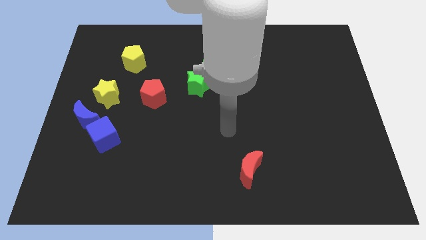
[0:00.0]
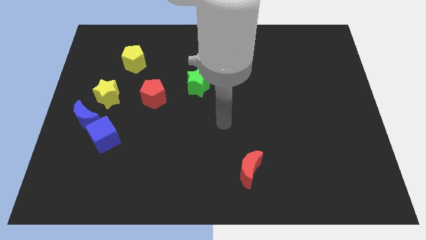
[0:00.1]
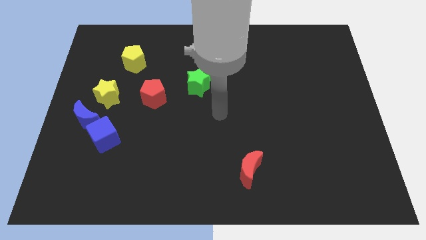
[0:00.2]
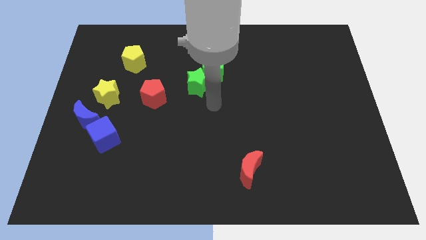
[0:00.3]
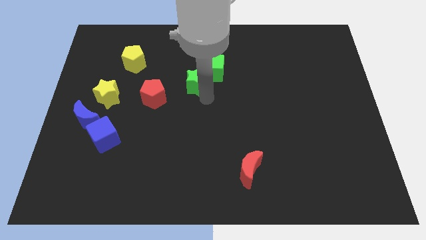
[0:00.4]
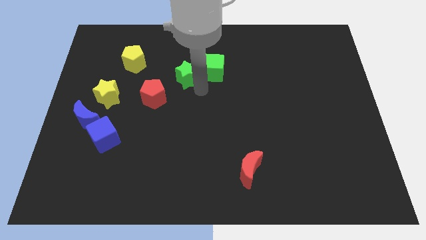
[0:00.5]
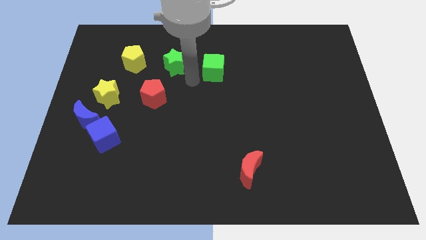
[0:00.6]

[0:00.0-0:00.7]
move the green cube away from the green star

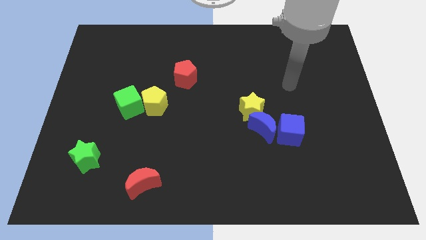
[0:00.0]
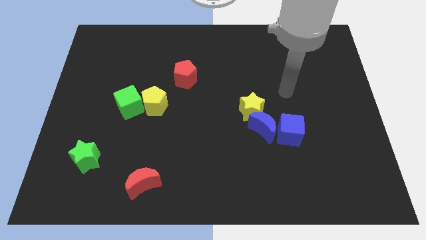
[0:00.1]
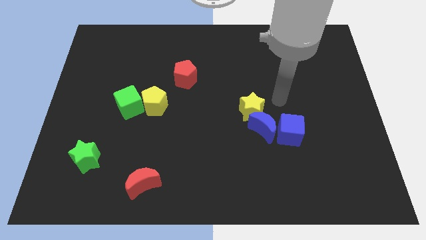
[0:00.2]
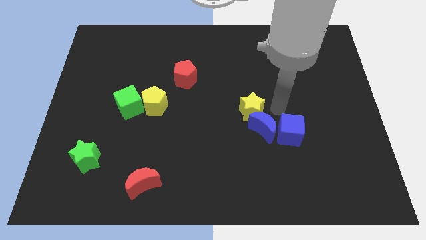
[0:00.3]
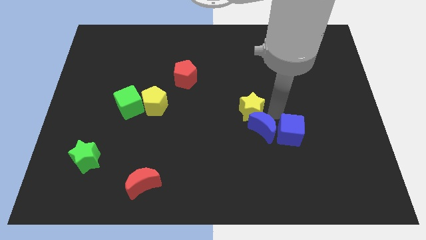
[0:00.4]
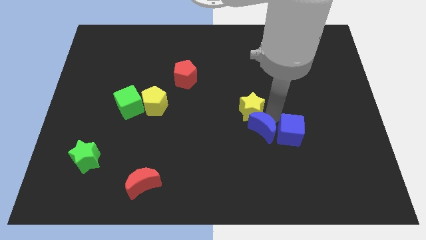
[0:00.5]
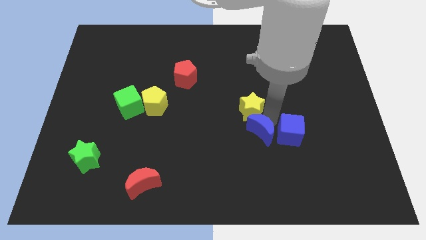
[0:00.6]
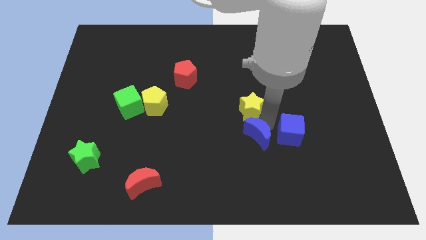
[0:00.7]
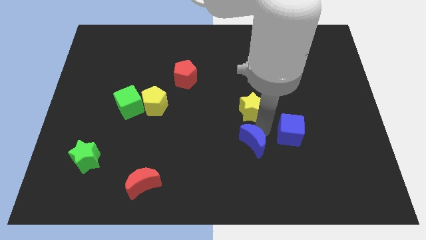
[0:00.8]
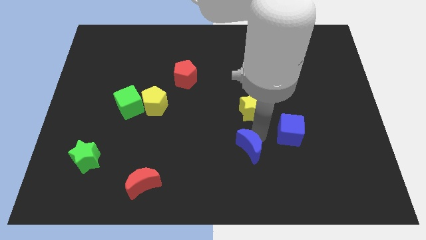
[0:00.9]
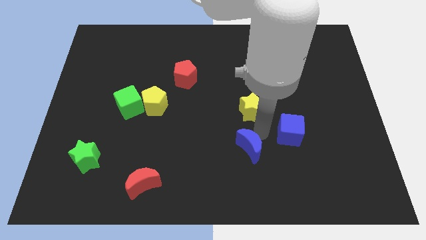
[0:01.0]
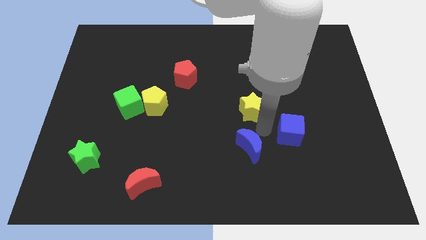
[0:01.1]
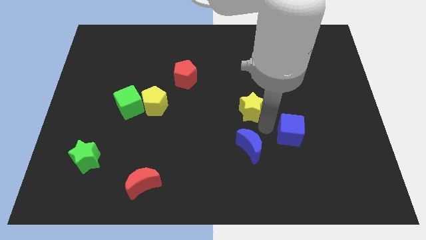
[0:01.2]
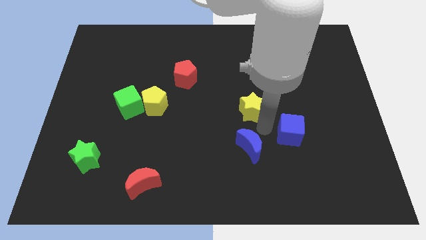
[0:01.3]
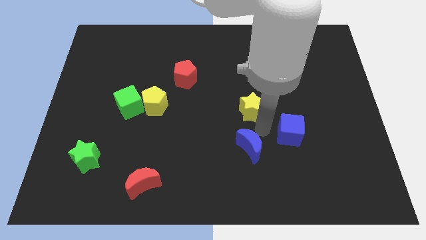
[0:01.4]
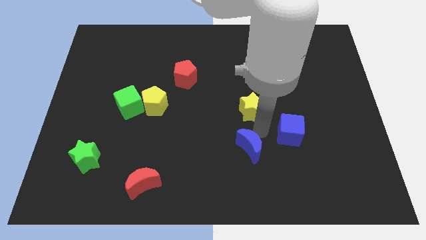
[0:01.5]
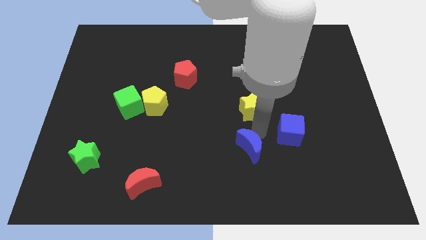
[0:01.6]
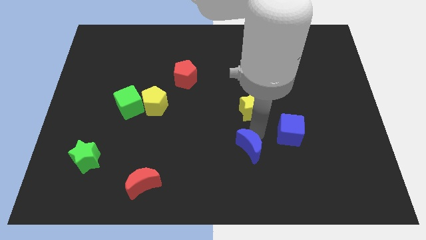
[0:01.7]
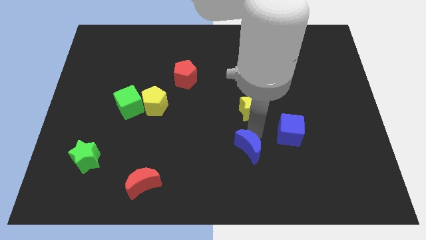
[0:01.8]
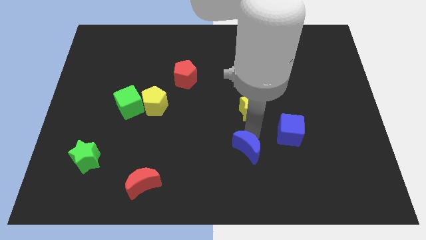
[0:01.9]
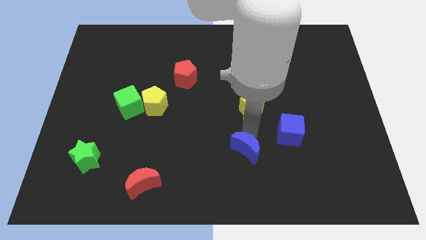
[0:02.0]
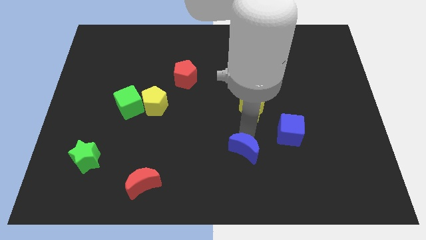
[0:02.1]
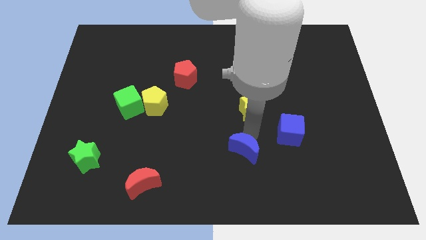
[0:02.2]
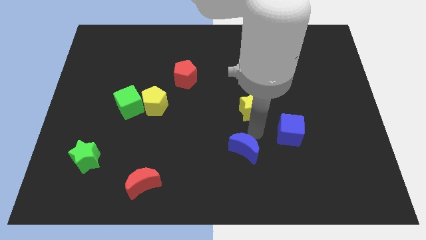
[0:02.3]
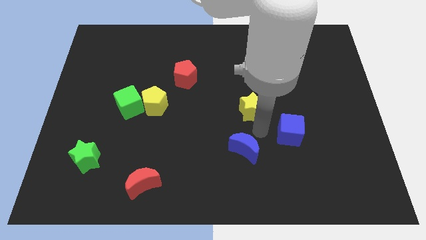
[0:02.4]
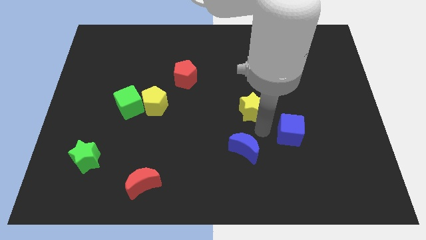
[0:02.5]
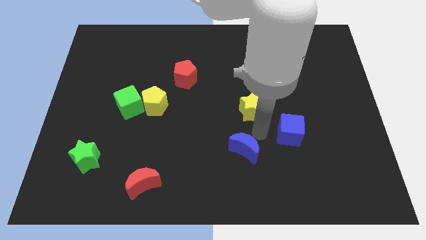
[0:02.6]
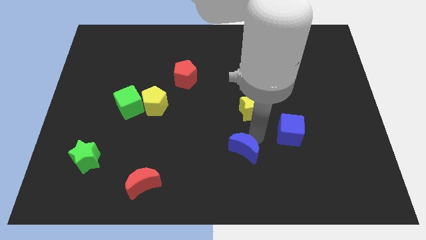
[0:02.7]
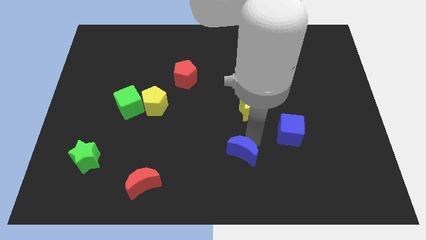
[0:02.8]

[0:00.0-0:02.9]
pull the blue moon apart from the yellow star and blue cube

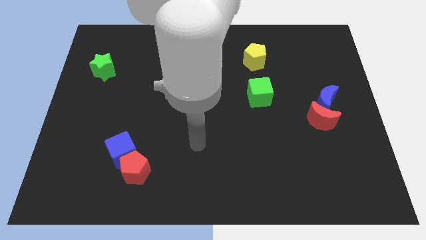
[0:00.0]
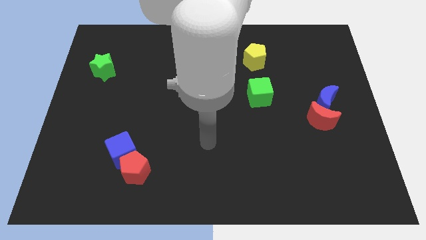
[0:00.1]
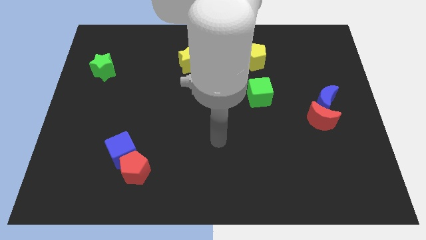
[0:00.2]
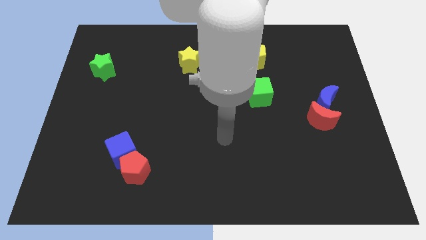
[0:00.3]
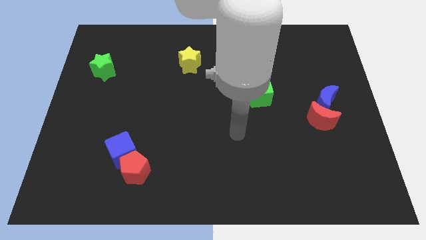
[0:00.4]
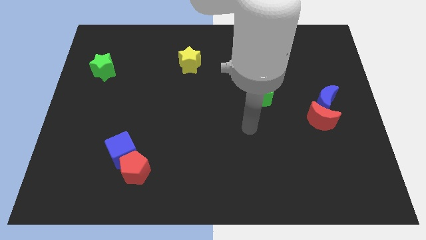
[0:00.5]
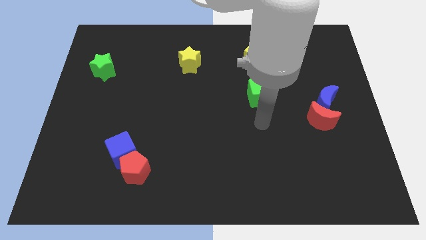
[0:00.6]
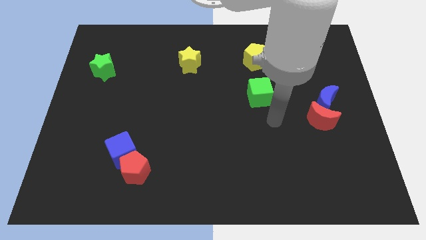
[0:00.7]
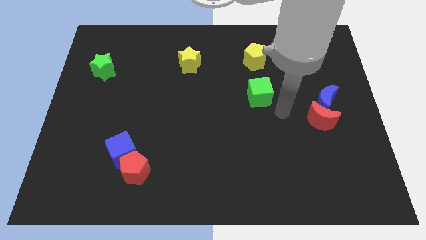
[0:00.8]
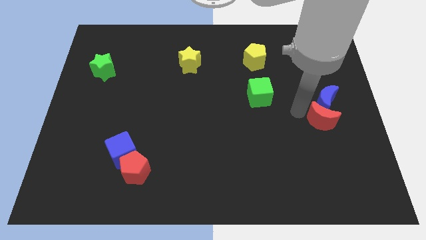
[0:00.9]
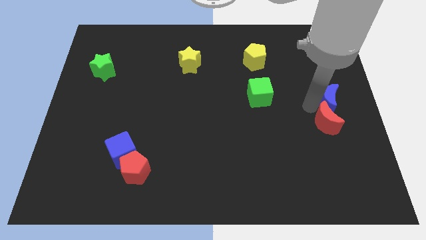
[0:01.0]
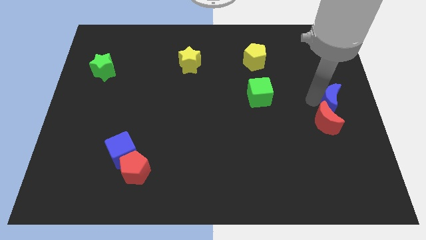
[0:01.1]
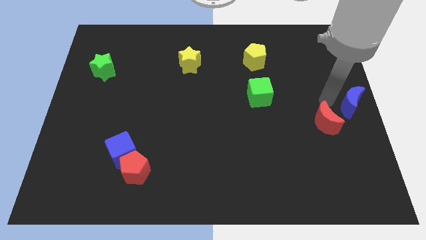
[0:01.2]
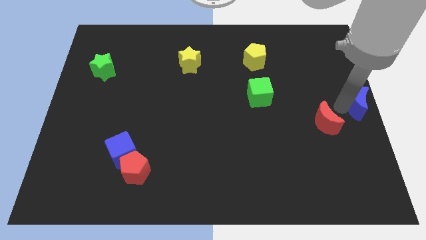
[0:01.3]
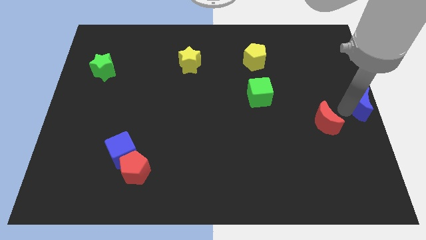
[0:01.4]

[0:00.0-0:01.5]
separate the red moon from the blue moon

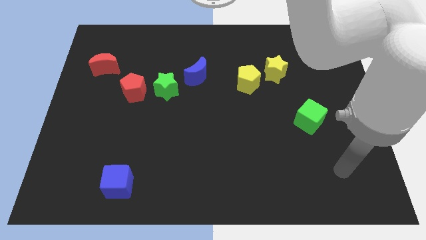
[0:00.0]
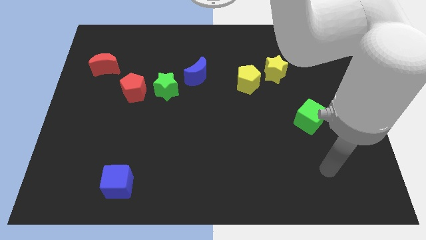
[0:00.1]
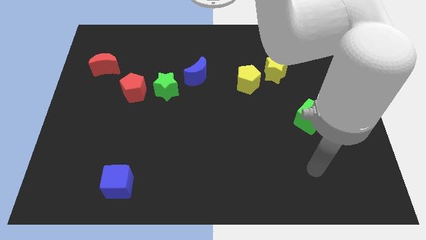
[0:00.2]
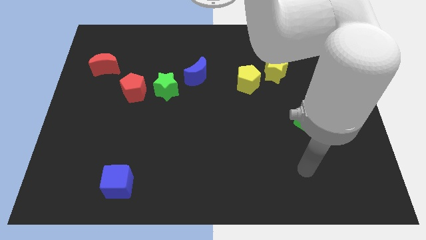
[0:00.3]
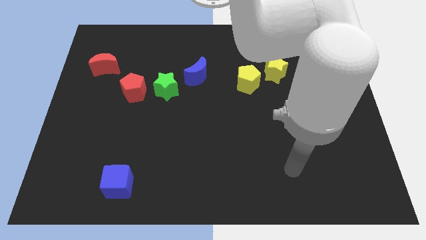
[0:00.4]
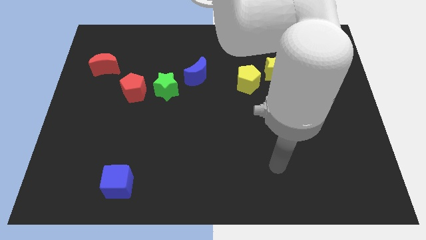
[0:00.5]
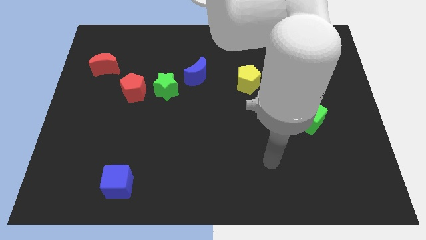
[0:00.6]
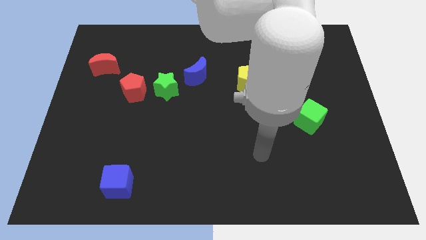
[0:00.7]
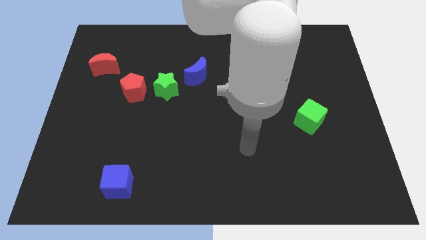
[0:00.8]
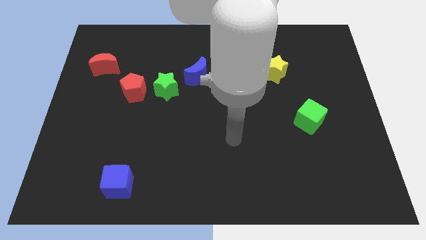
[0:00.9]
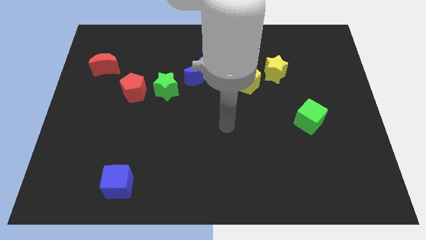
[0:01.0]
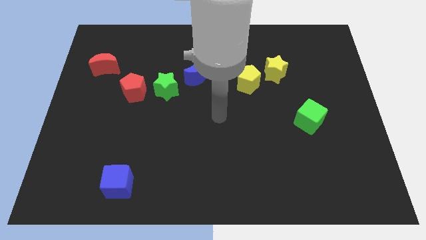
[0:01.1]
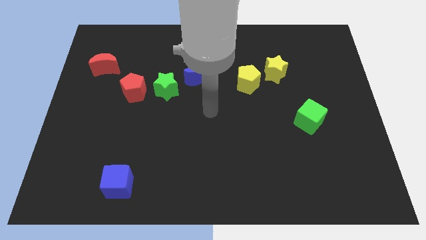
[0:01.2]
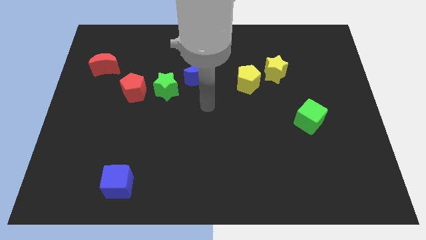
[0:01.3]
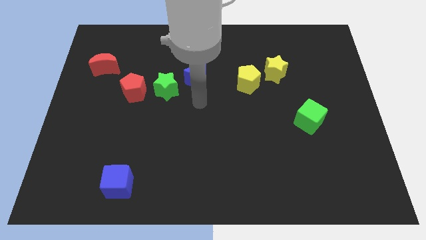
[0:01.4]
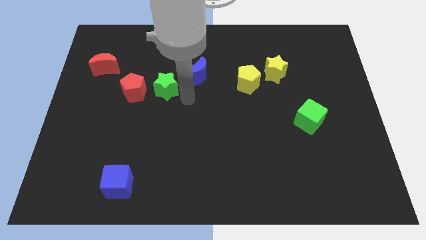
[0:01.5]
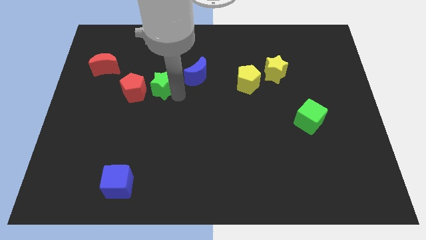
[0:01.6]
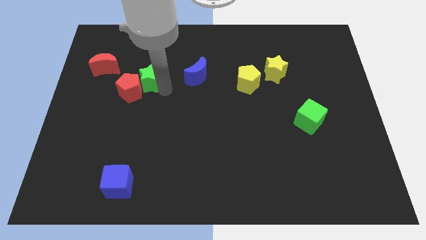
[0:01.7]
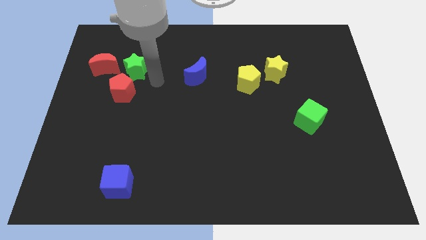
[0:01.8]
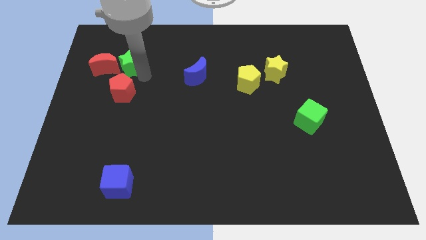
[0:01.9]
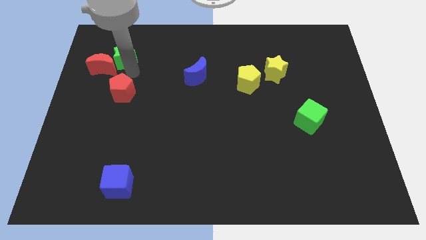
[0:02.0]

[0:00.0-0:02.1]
move the red pentagon away from the green star

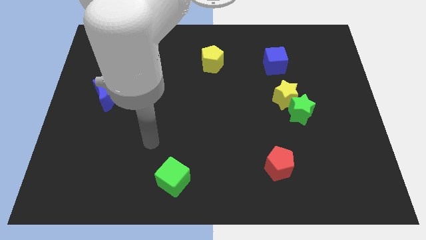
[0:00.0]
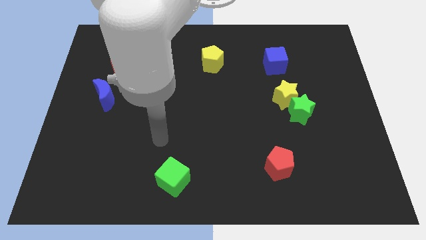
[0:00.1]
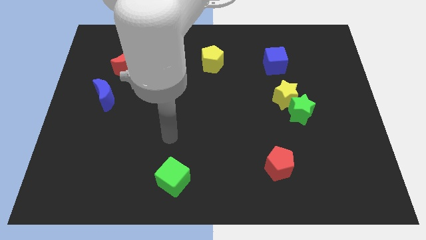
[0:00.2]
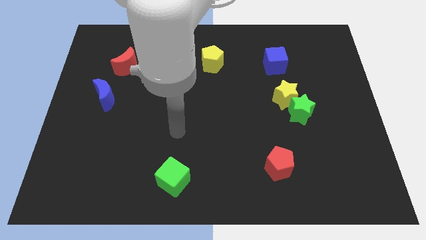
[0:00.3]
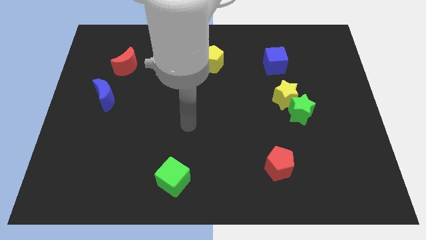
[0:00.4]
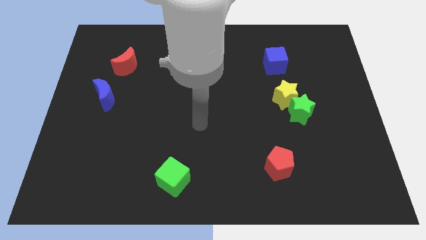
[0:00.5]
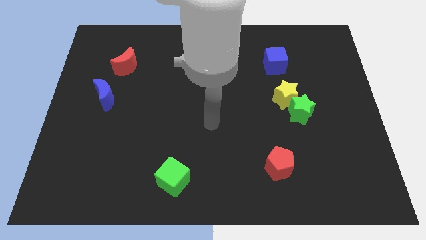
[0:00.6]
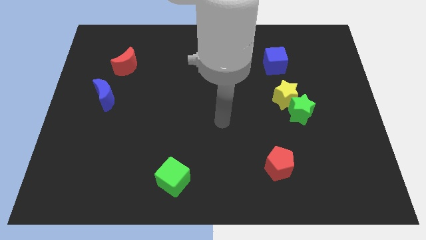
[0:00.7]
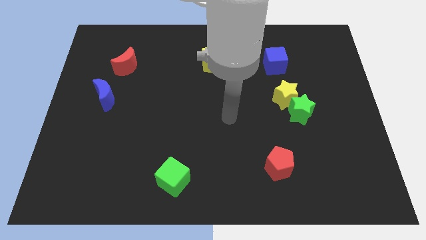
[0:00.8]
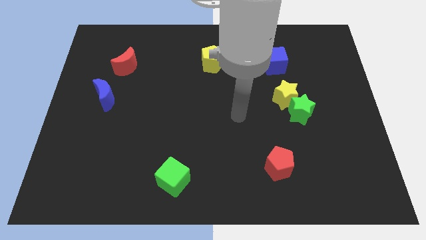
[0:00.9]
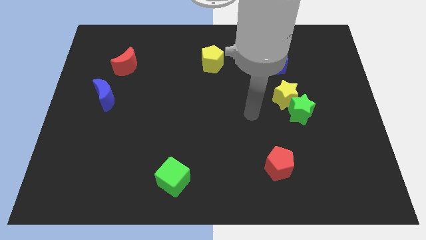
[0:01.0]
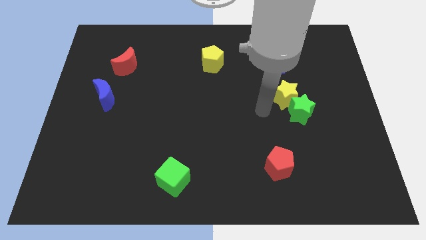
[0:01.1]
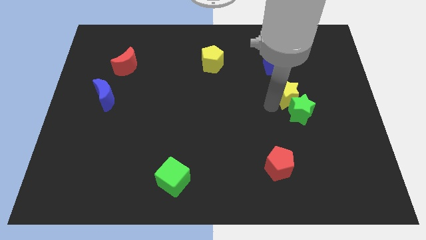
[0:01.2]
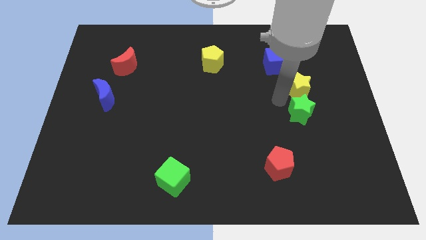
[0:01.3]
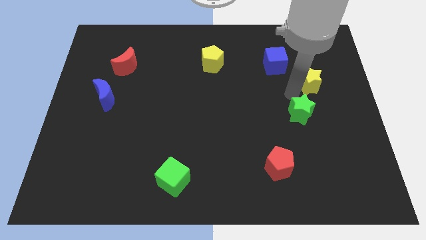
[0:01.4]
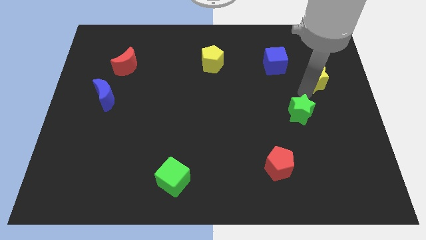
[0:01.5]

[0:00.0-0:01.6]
pull the green star apart from the yellow star

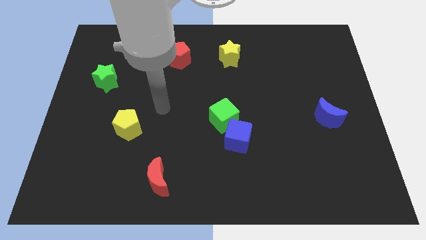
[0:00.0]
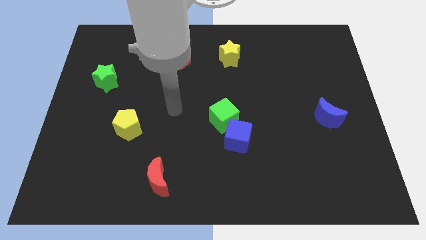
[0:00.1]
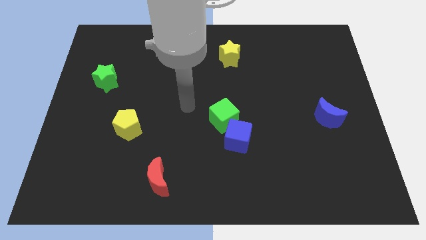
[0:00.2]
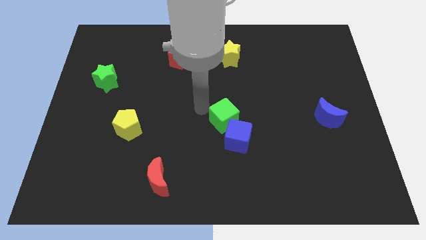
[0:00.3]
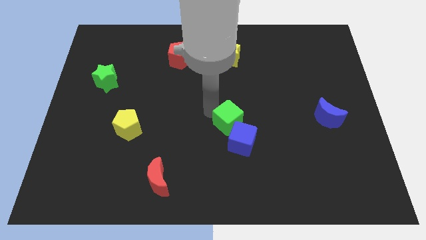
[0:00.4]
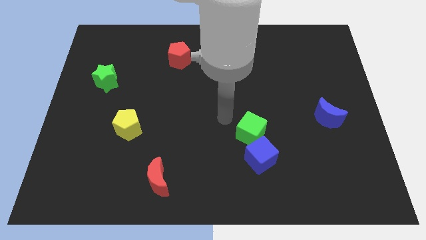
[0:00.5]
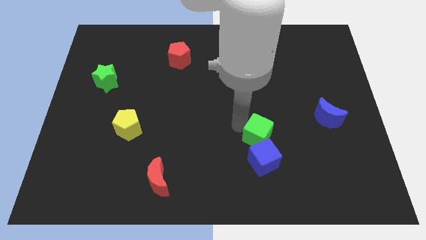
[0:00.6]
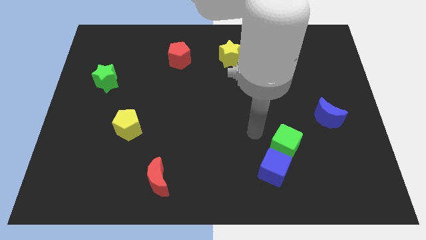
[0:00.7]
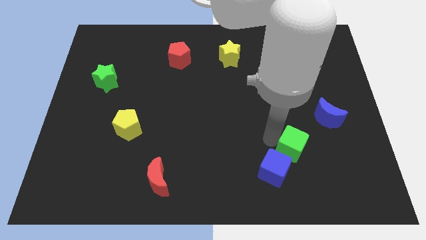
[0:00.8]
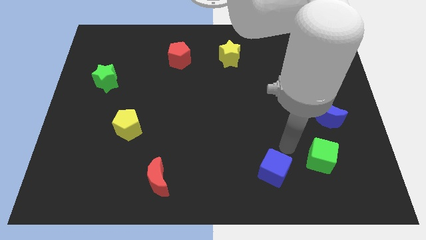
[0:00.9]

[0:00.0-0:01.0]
separate the blue cube from the green cube